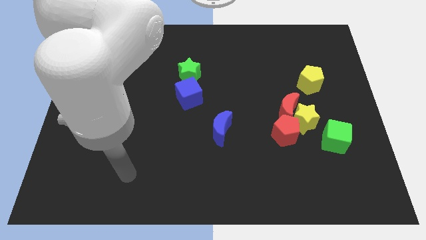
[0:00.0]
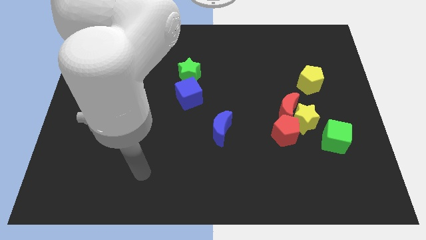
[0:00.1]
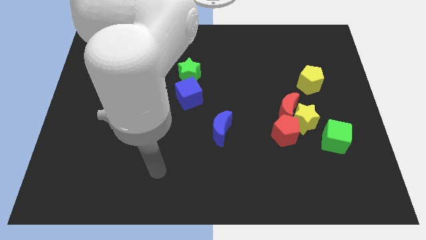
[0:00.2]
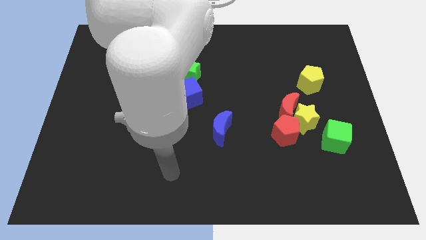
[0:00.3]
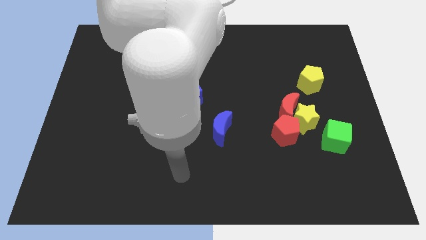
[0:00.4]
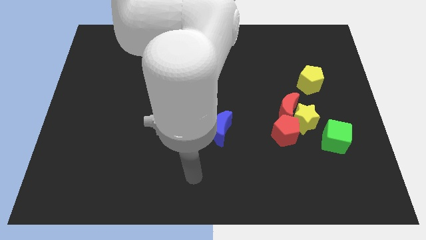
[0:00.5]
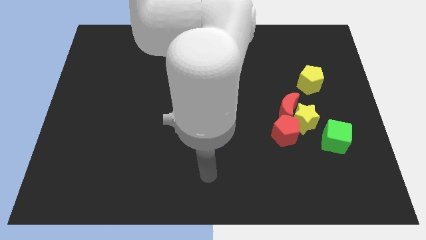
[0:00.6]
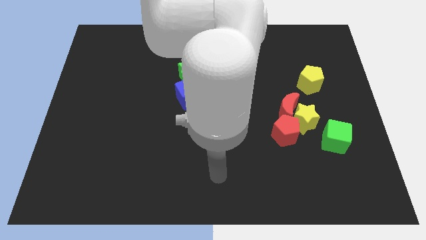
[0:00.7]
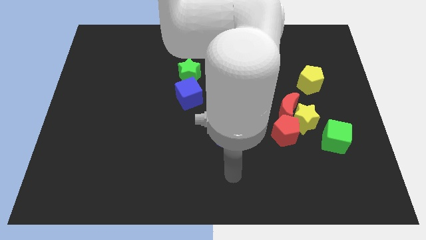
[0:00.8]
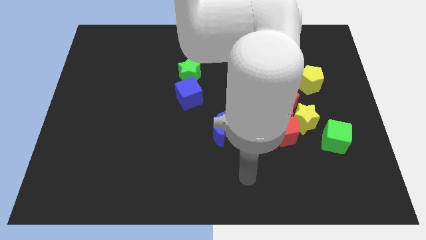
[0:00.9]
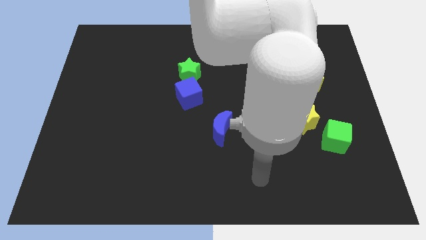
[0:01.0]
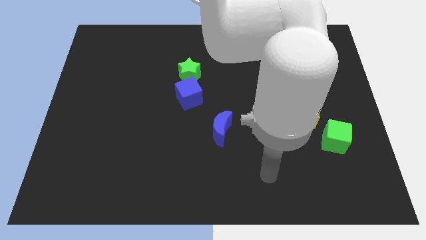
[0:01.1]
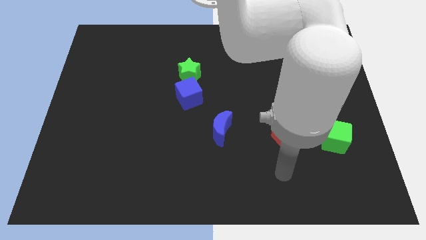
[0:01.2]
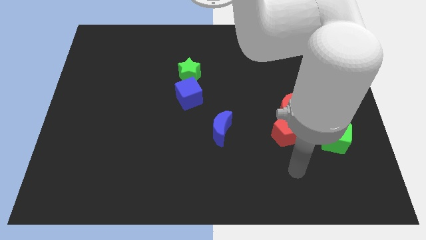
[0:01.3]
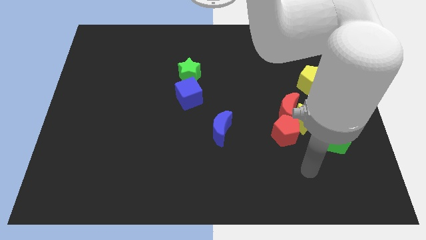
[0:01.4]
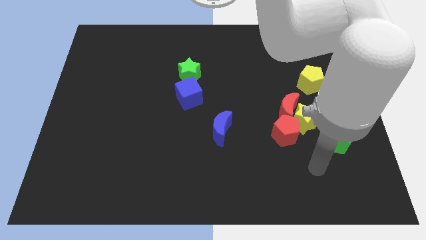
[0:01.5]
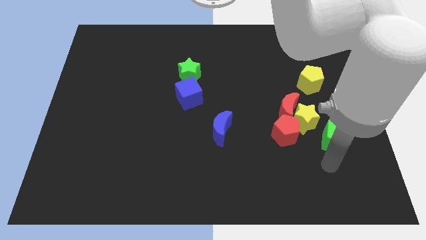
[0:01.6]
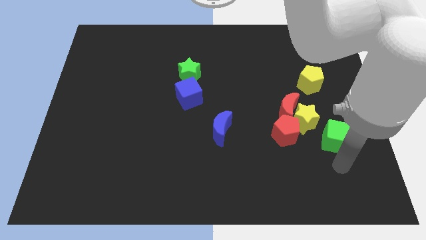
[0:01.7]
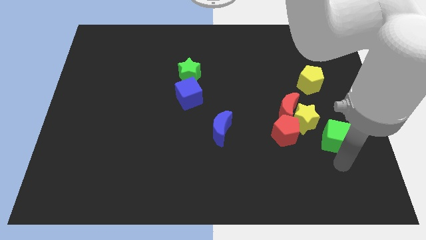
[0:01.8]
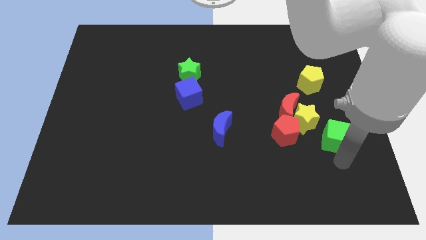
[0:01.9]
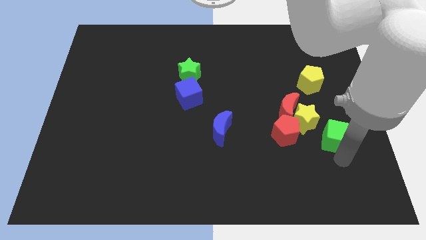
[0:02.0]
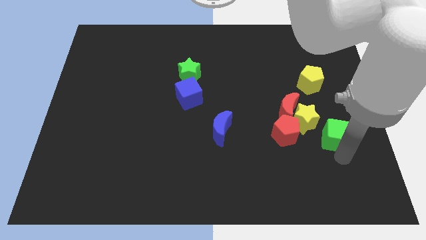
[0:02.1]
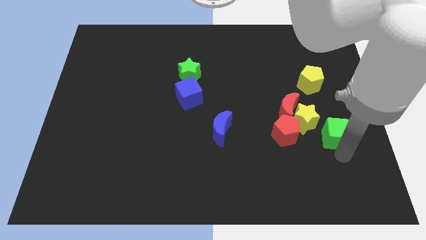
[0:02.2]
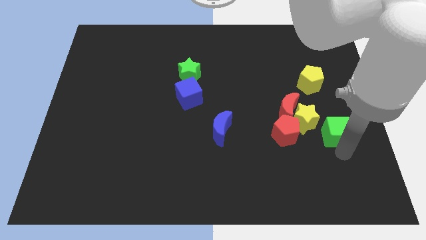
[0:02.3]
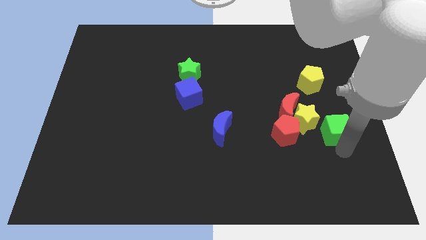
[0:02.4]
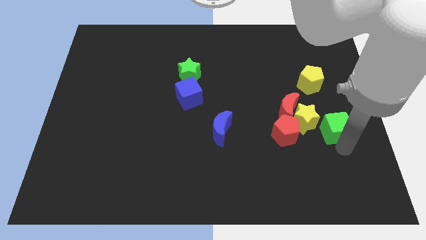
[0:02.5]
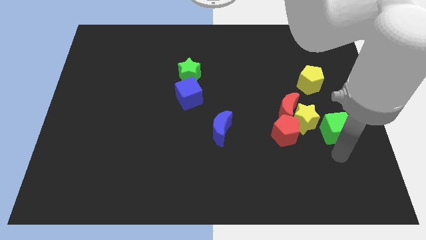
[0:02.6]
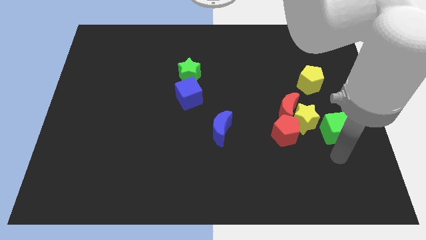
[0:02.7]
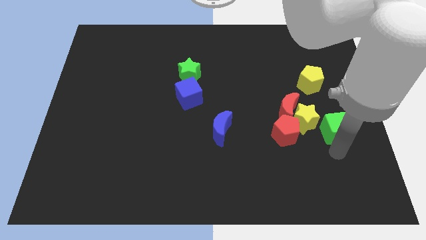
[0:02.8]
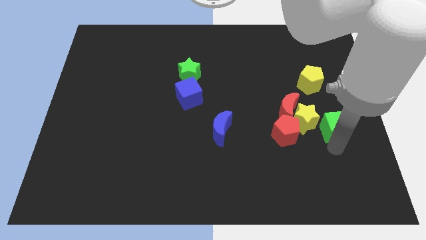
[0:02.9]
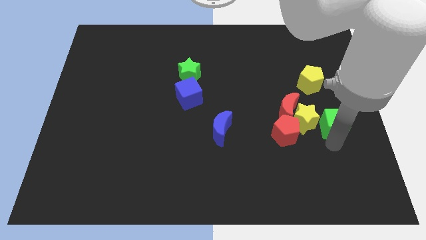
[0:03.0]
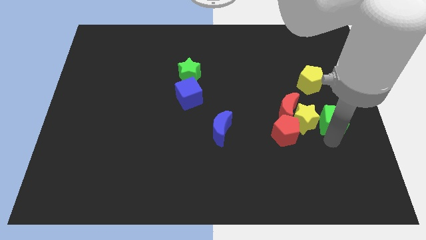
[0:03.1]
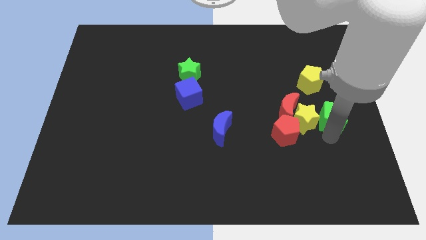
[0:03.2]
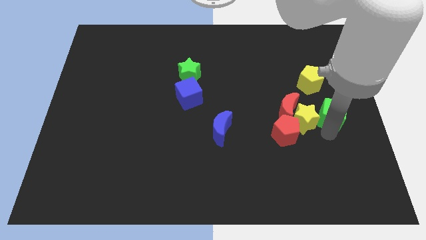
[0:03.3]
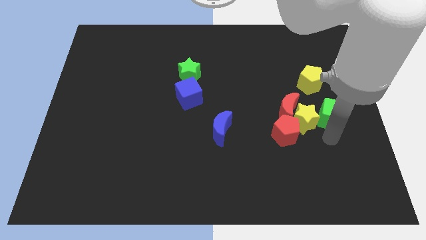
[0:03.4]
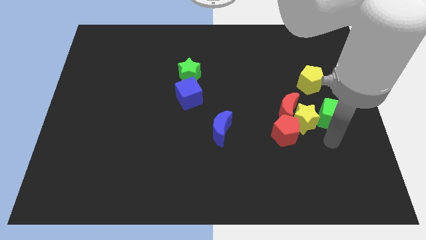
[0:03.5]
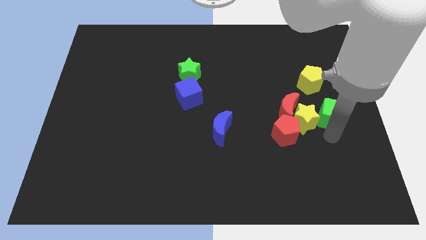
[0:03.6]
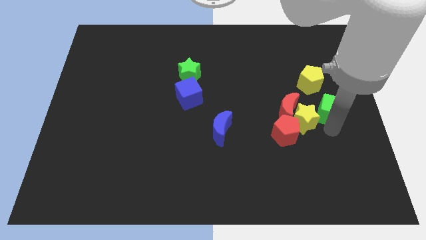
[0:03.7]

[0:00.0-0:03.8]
slightly move the green cube up

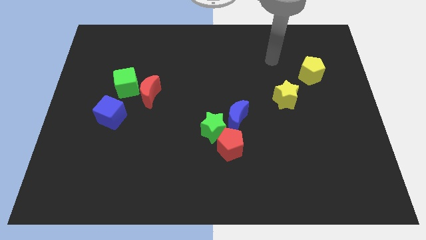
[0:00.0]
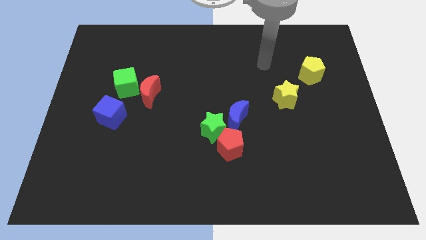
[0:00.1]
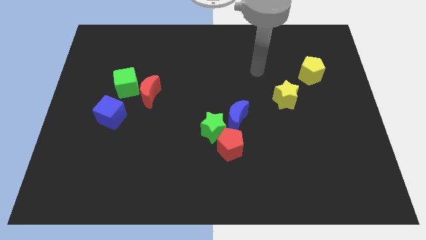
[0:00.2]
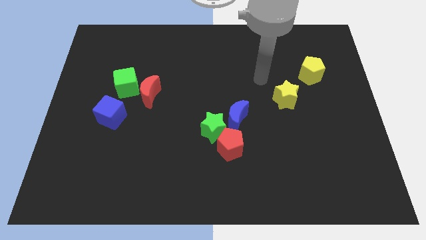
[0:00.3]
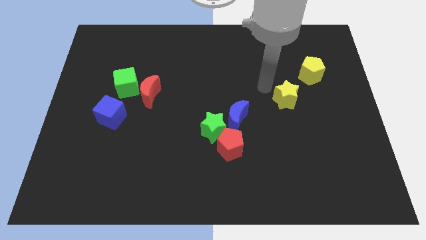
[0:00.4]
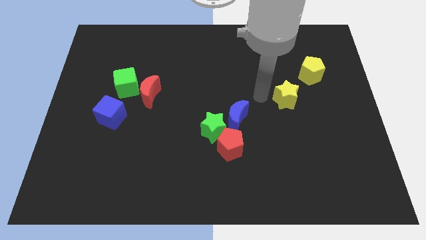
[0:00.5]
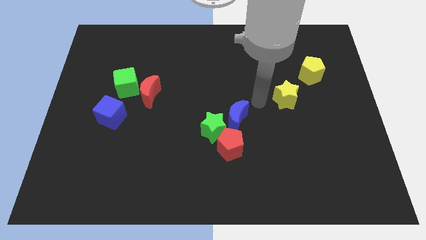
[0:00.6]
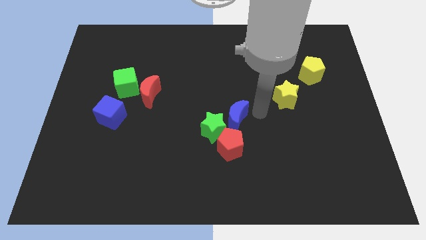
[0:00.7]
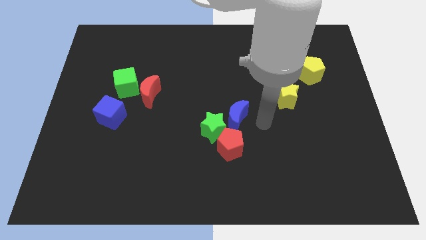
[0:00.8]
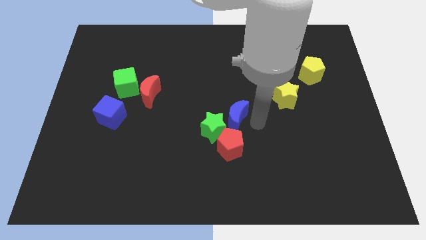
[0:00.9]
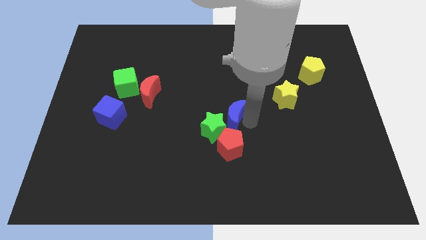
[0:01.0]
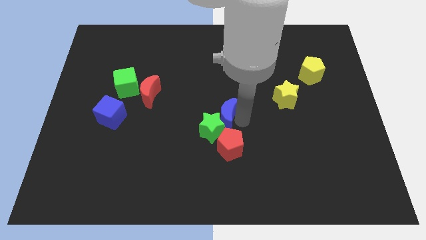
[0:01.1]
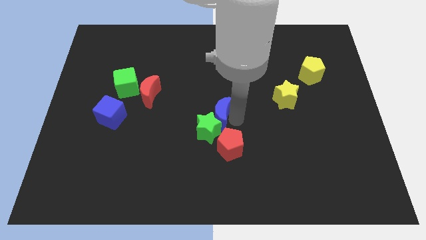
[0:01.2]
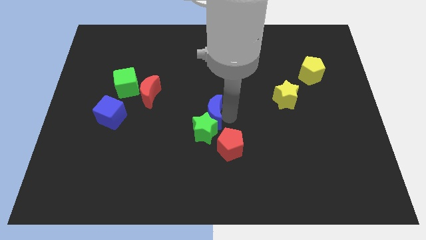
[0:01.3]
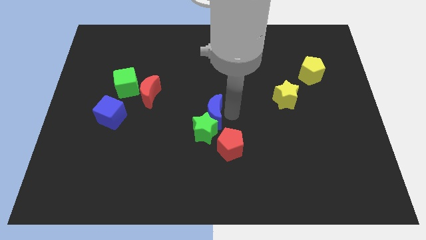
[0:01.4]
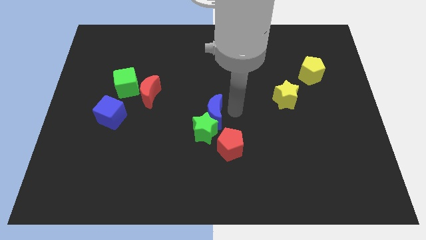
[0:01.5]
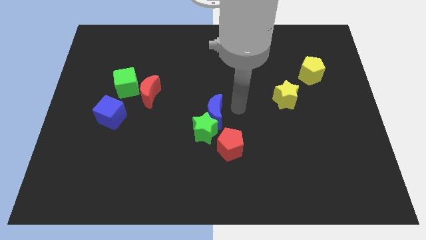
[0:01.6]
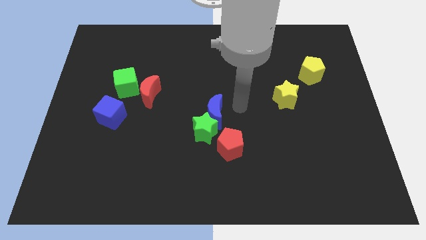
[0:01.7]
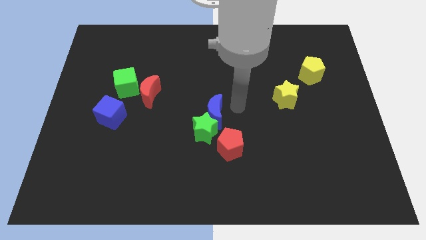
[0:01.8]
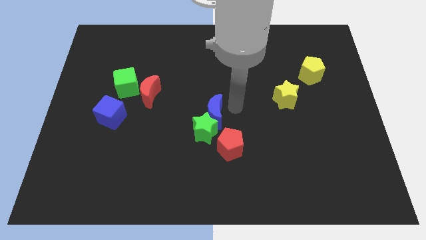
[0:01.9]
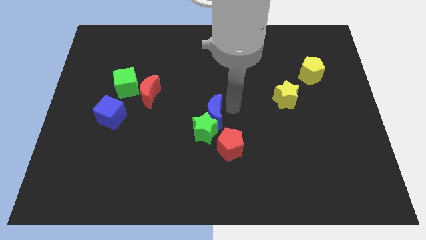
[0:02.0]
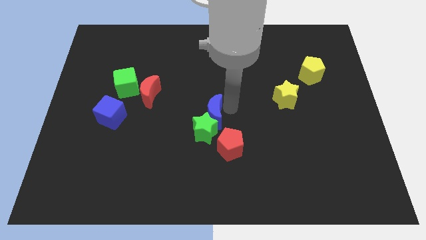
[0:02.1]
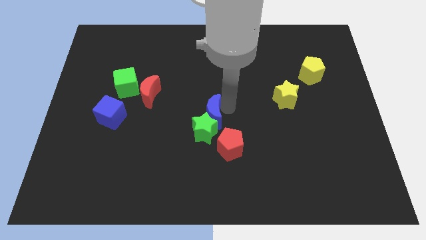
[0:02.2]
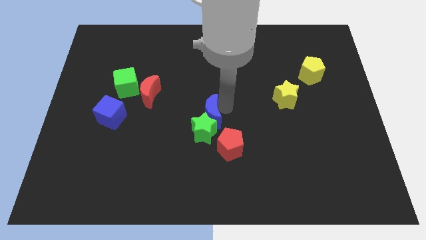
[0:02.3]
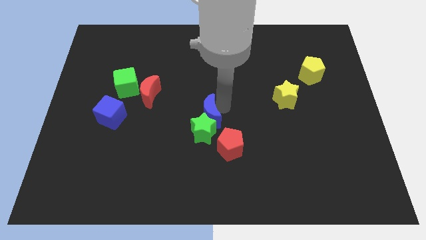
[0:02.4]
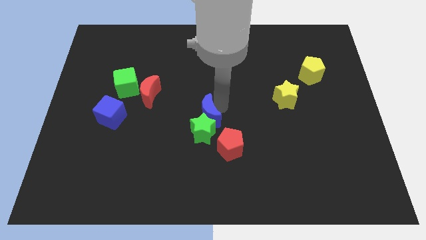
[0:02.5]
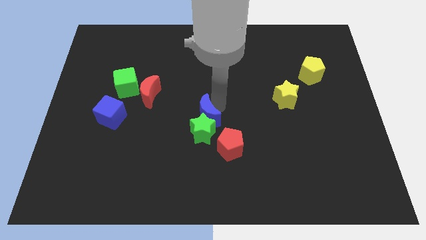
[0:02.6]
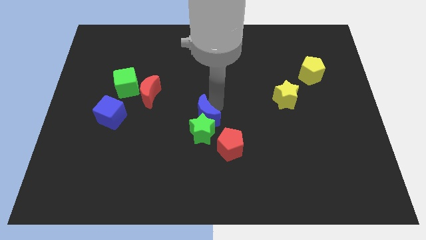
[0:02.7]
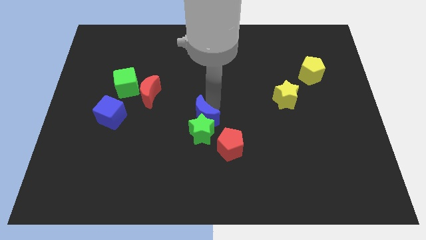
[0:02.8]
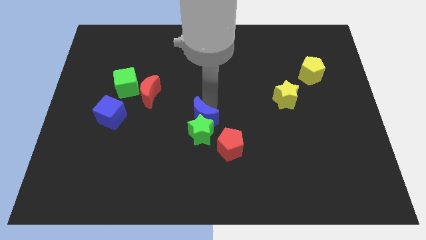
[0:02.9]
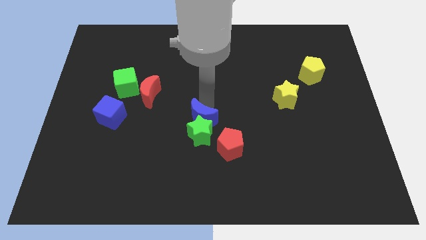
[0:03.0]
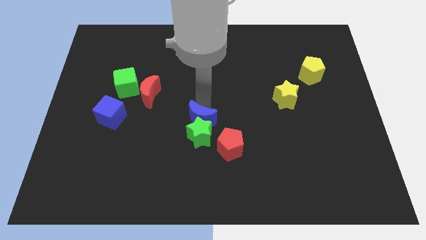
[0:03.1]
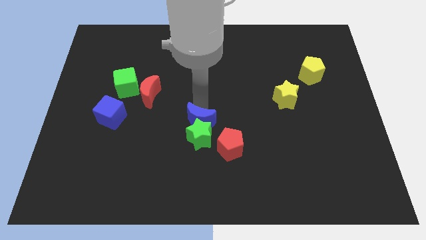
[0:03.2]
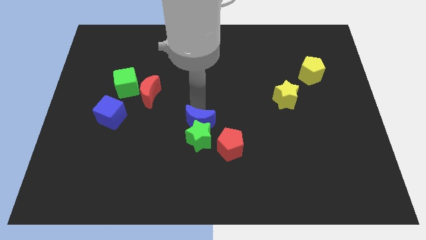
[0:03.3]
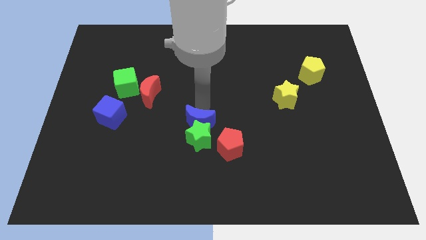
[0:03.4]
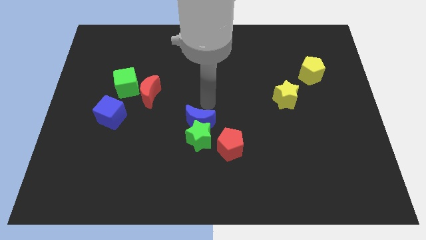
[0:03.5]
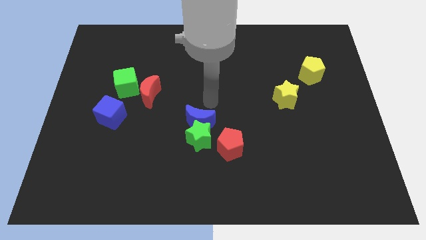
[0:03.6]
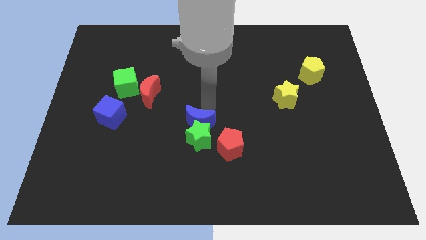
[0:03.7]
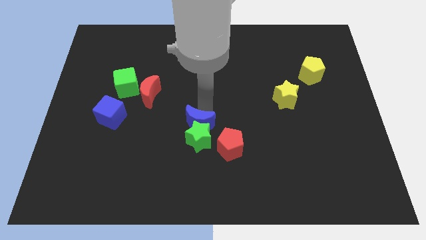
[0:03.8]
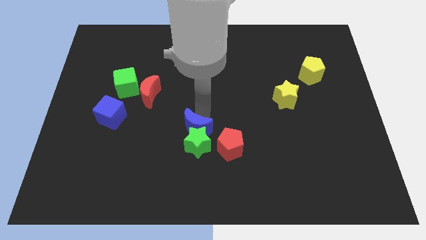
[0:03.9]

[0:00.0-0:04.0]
slightly move the blue moon downwards and then left

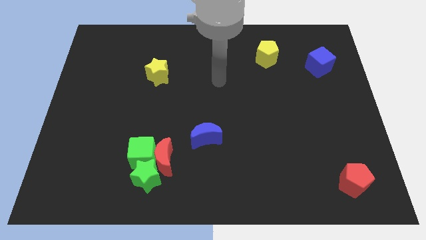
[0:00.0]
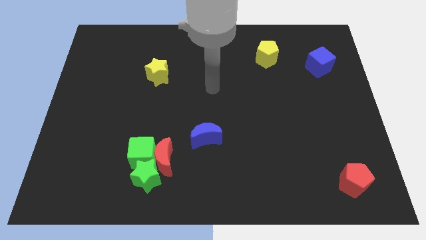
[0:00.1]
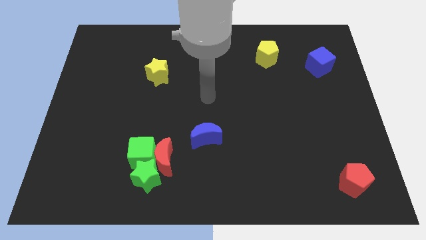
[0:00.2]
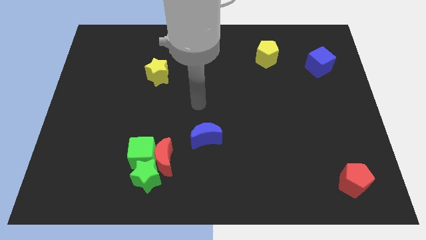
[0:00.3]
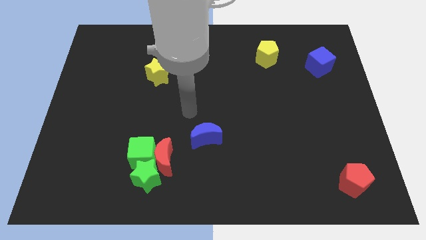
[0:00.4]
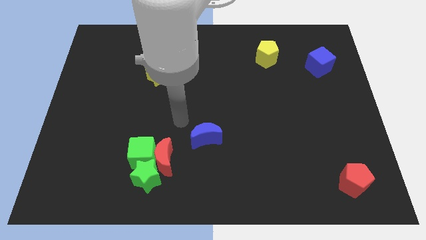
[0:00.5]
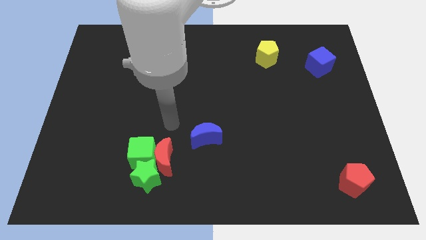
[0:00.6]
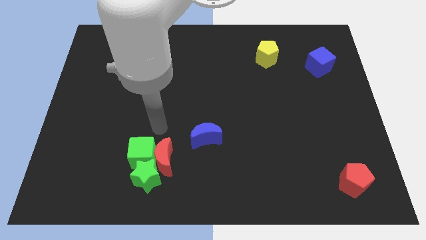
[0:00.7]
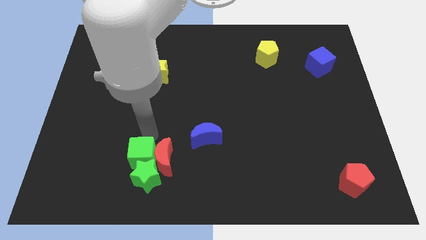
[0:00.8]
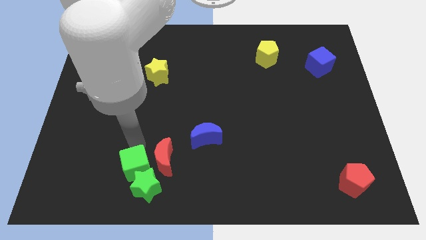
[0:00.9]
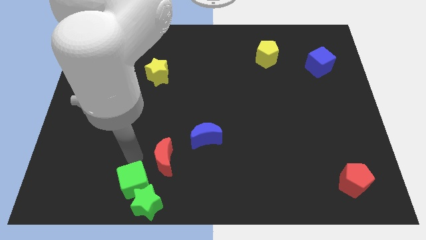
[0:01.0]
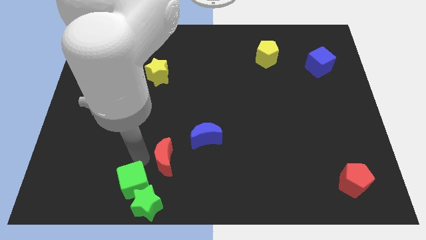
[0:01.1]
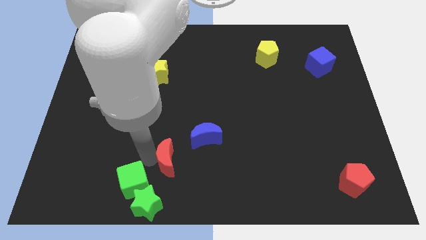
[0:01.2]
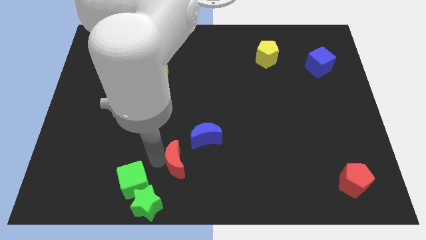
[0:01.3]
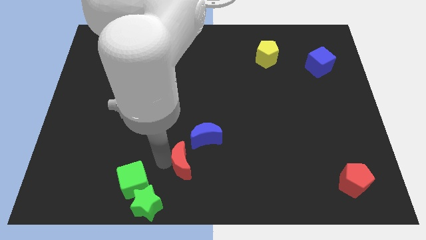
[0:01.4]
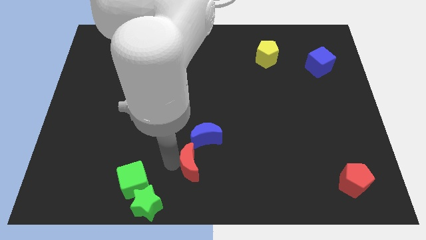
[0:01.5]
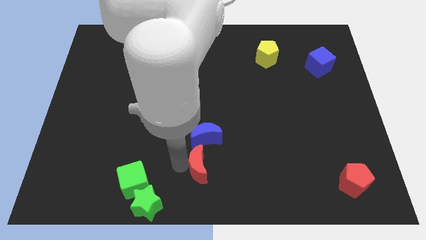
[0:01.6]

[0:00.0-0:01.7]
slide the red moon somewhat right
